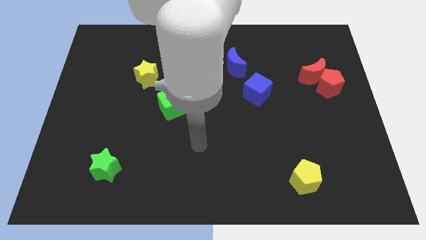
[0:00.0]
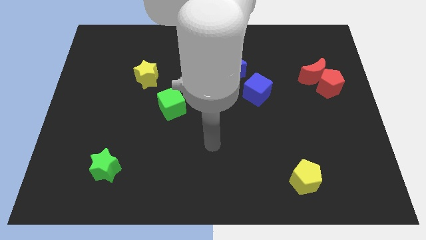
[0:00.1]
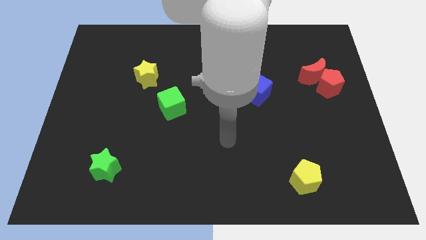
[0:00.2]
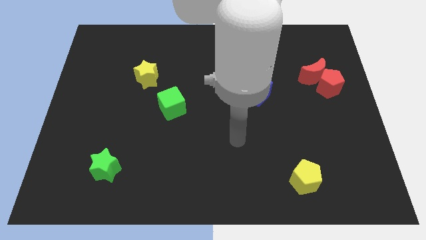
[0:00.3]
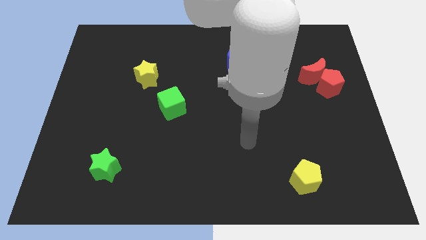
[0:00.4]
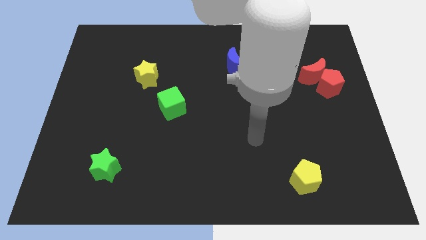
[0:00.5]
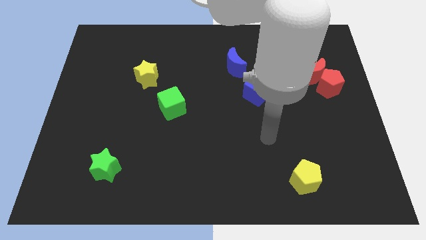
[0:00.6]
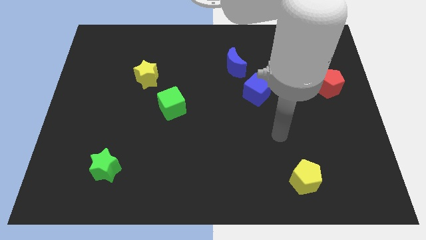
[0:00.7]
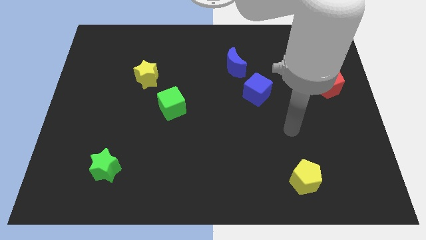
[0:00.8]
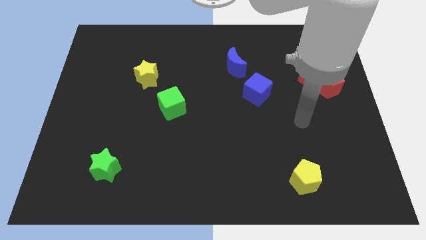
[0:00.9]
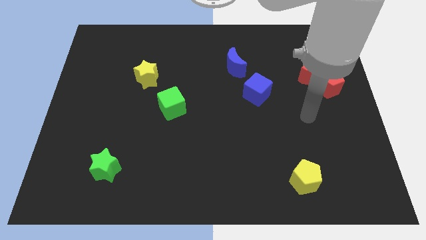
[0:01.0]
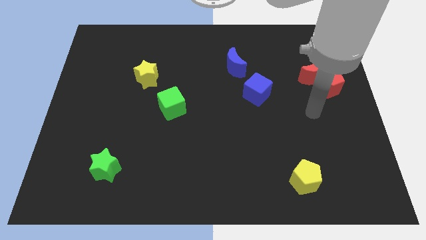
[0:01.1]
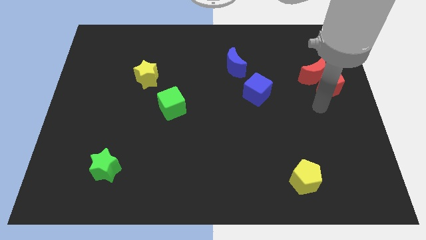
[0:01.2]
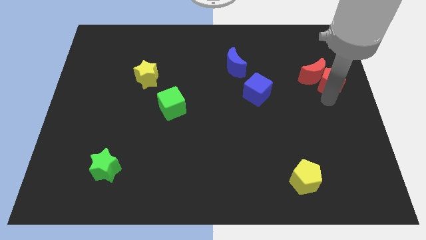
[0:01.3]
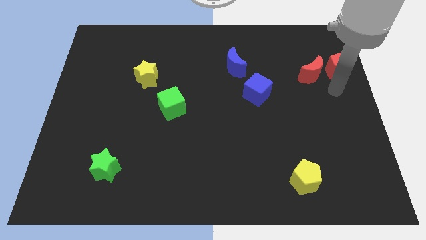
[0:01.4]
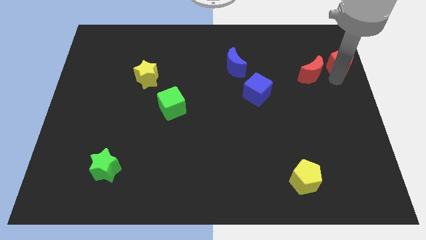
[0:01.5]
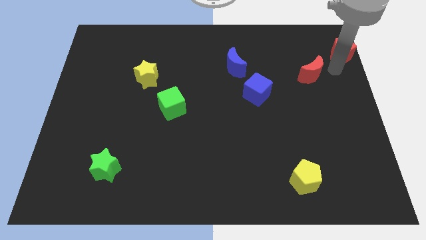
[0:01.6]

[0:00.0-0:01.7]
separate the red moon from the red pentagon

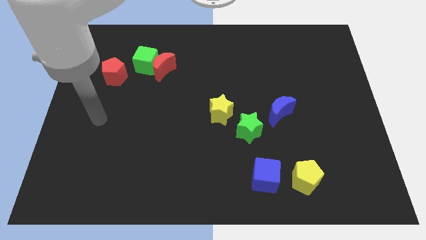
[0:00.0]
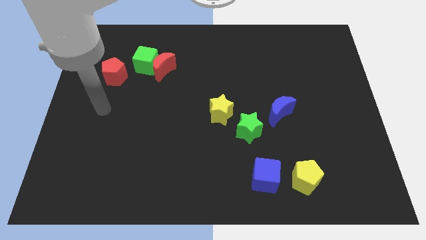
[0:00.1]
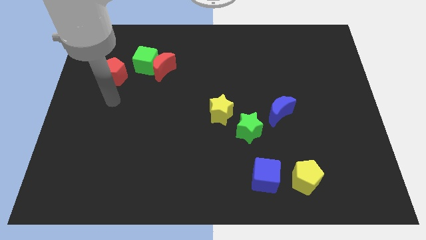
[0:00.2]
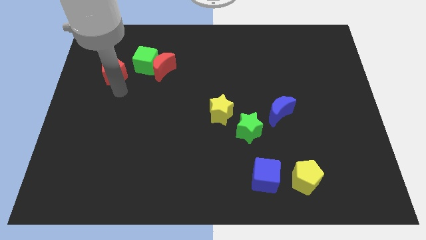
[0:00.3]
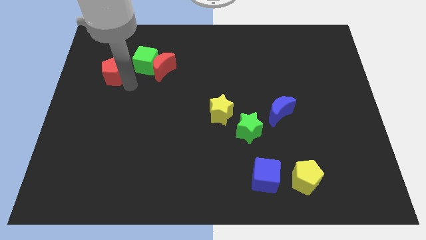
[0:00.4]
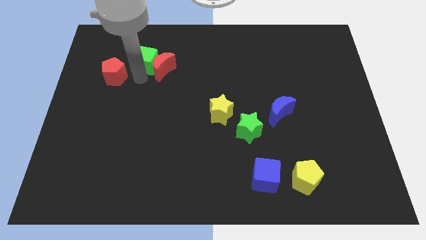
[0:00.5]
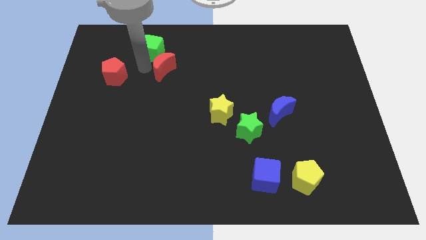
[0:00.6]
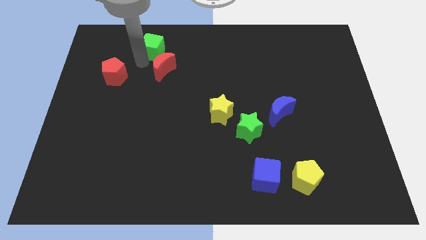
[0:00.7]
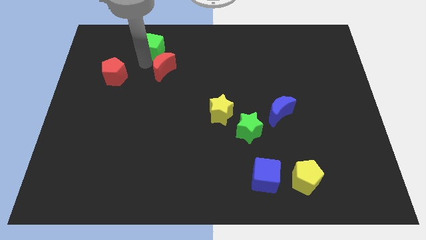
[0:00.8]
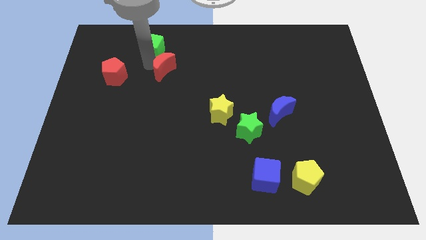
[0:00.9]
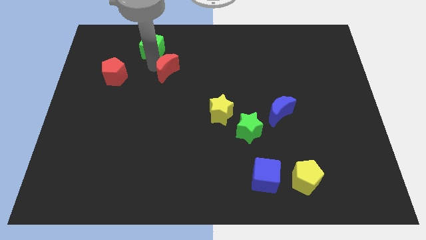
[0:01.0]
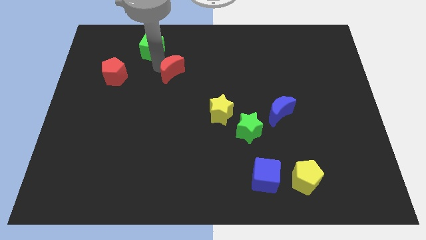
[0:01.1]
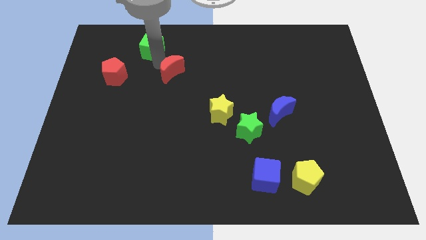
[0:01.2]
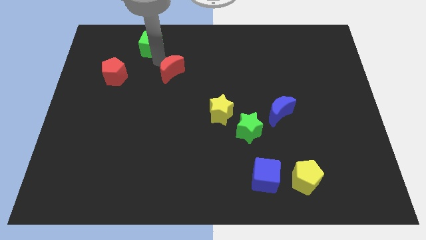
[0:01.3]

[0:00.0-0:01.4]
separate the red moon from the green cube

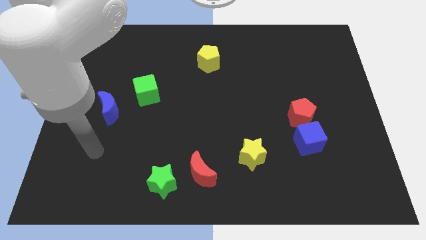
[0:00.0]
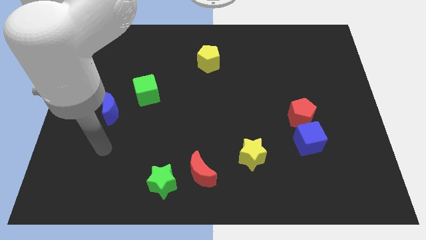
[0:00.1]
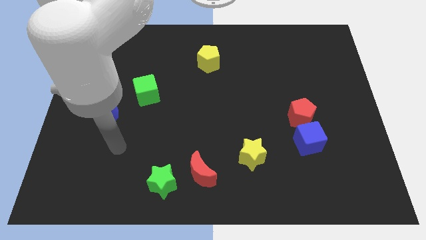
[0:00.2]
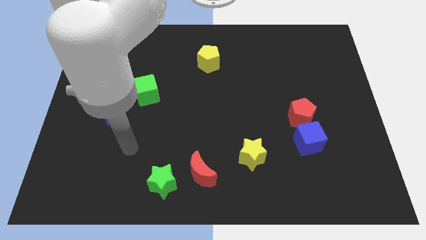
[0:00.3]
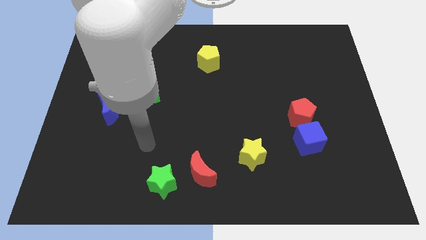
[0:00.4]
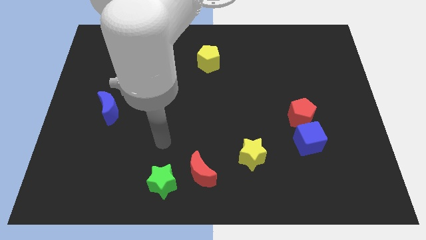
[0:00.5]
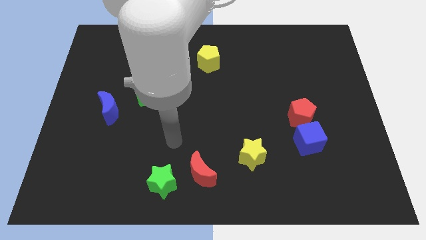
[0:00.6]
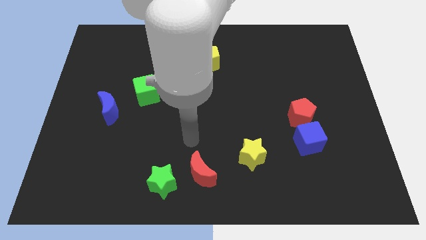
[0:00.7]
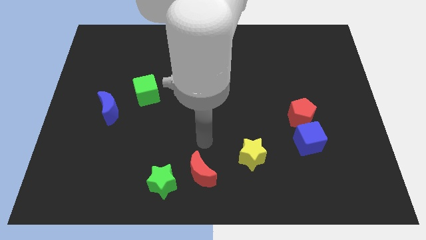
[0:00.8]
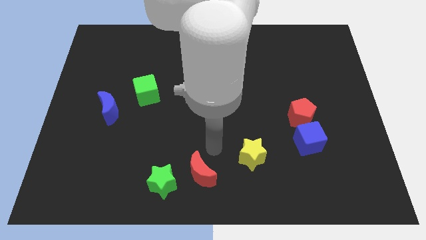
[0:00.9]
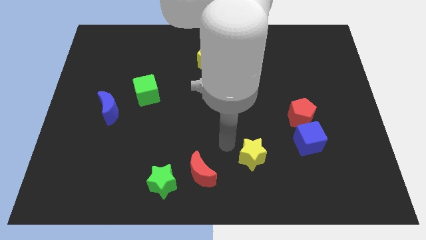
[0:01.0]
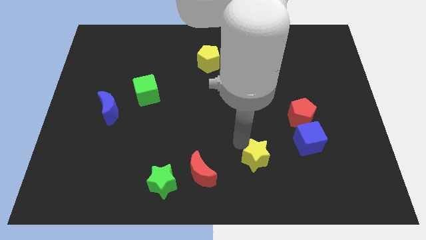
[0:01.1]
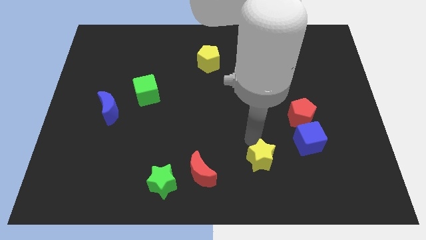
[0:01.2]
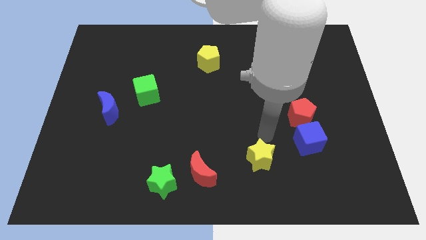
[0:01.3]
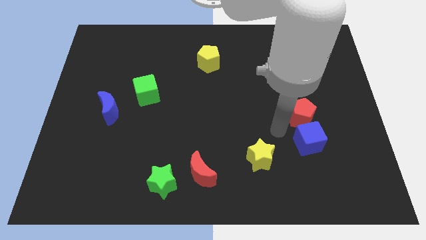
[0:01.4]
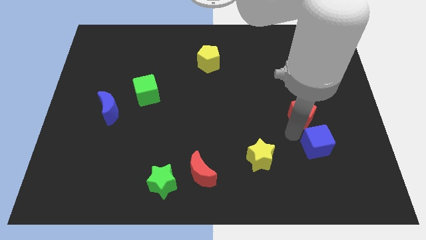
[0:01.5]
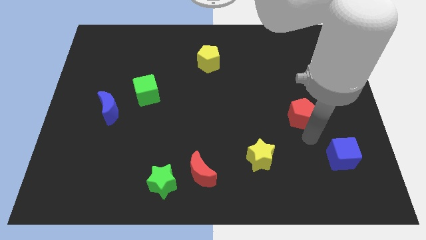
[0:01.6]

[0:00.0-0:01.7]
separate the red pentagon from the blue cube

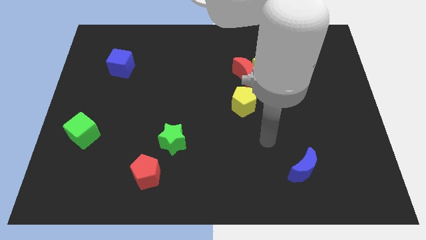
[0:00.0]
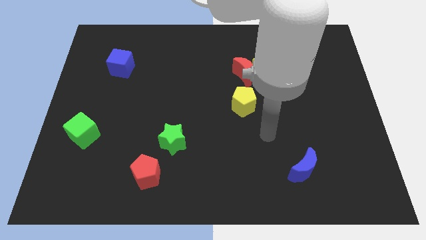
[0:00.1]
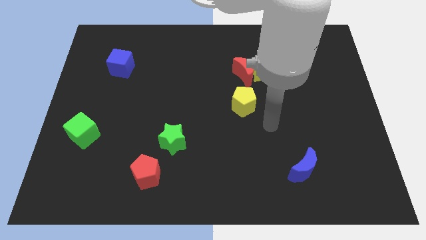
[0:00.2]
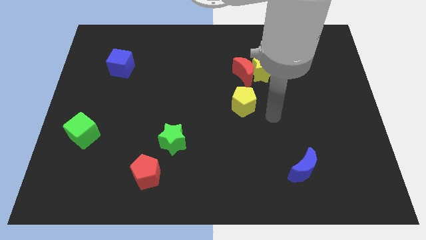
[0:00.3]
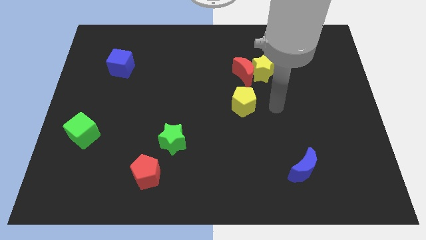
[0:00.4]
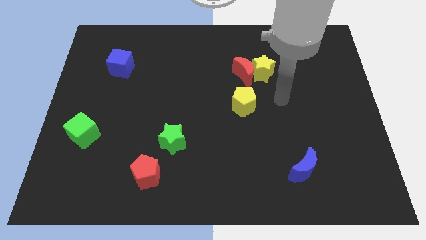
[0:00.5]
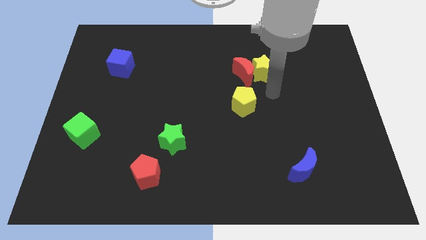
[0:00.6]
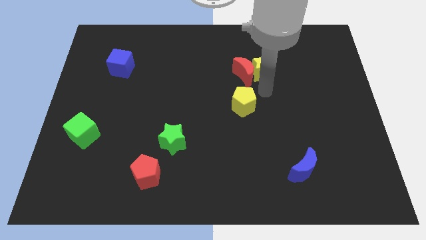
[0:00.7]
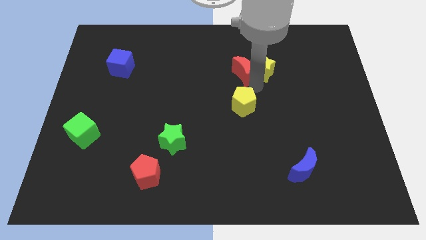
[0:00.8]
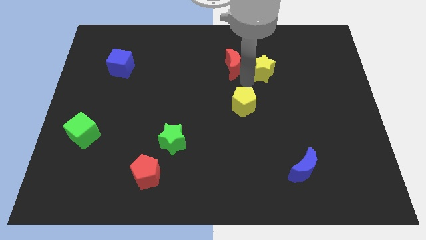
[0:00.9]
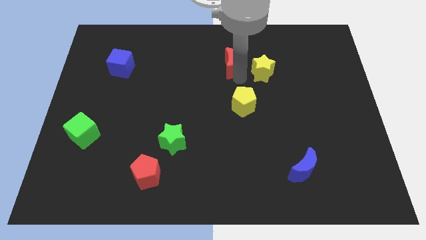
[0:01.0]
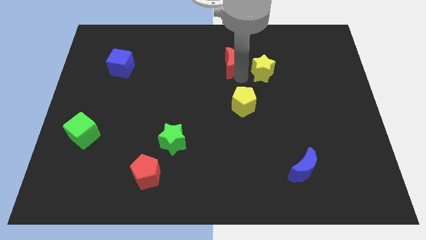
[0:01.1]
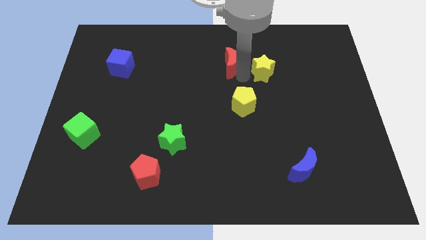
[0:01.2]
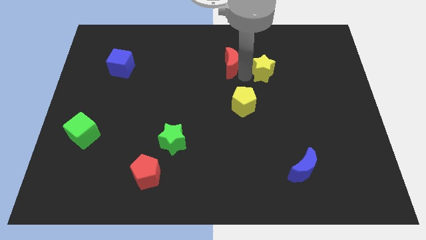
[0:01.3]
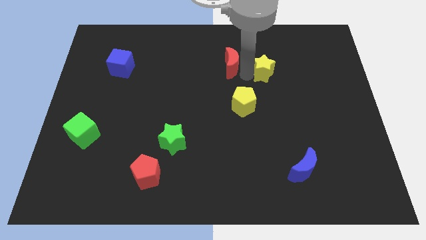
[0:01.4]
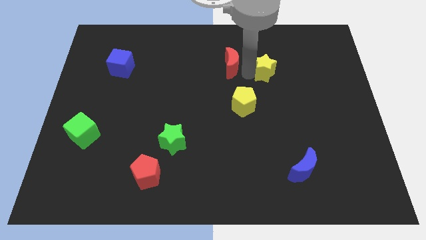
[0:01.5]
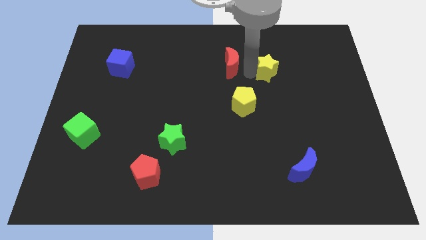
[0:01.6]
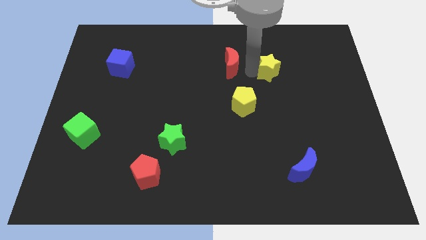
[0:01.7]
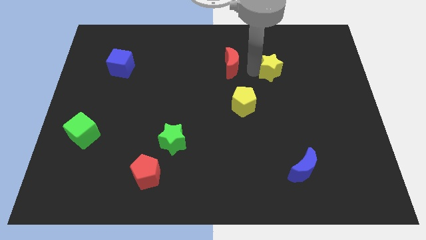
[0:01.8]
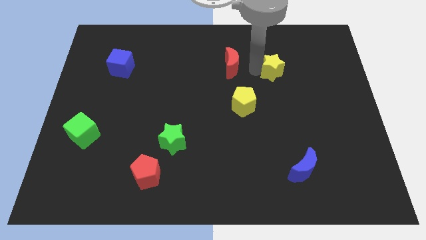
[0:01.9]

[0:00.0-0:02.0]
separate the yellow star from the red moon

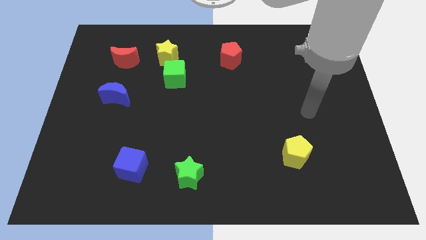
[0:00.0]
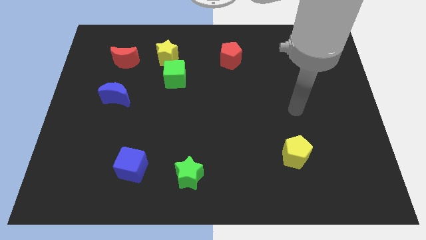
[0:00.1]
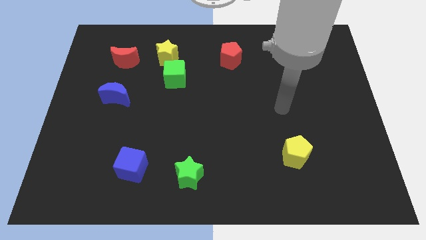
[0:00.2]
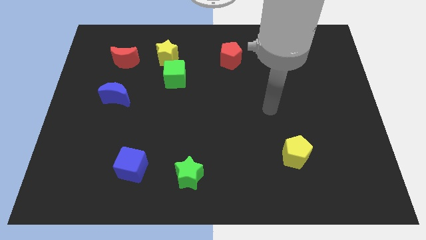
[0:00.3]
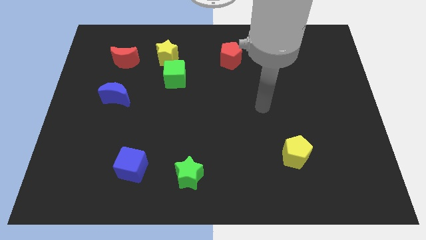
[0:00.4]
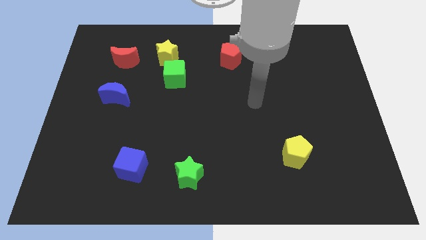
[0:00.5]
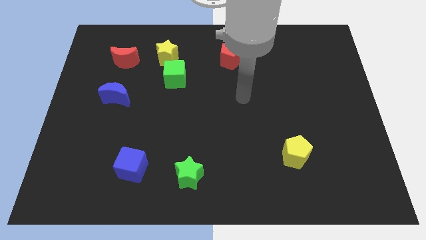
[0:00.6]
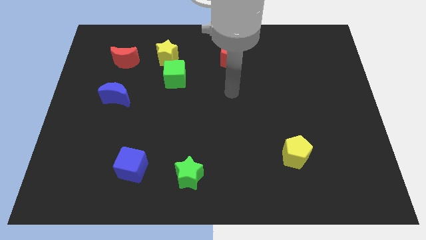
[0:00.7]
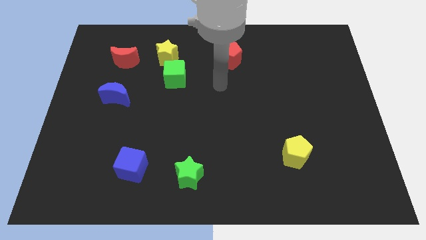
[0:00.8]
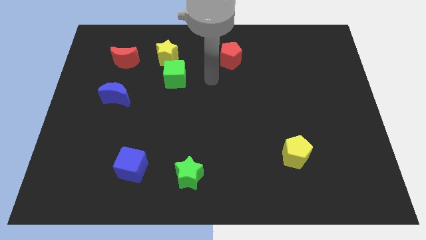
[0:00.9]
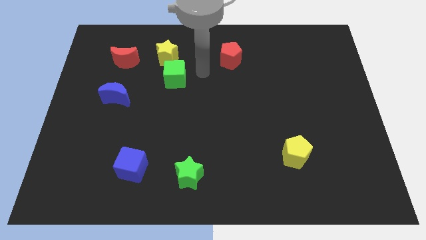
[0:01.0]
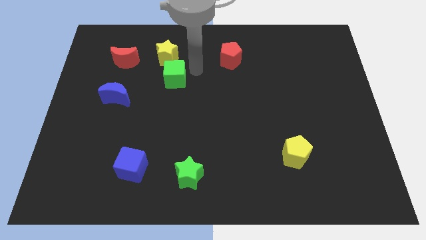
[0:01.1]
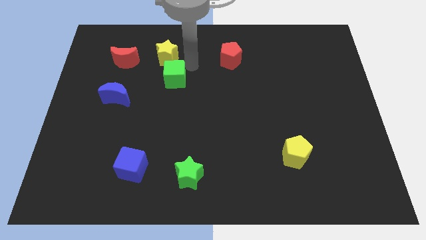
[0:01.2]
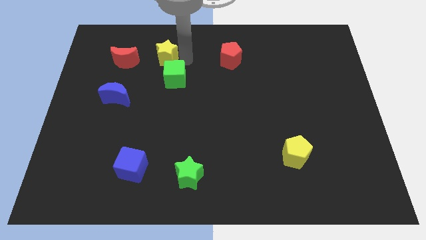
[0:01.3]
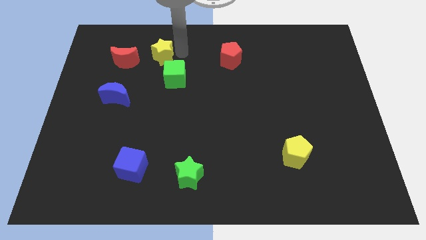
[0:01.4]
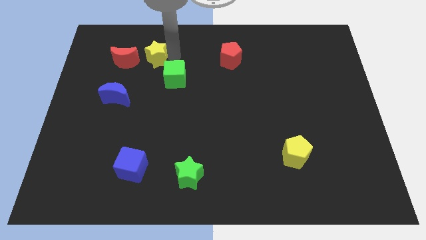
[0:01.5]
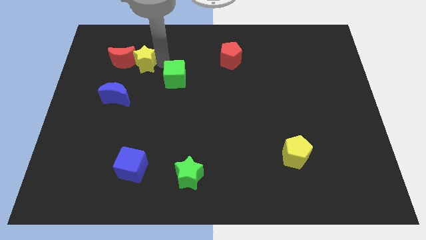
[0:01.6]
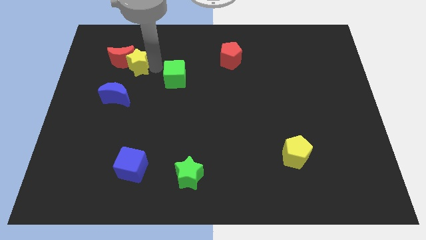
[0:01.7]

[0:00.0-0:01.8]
separate the green cube from the yellow star

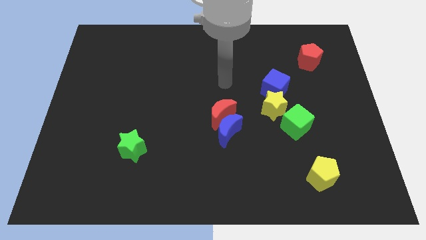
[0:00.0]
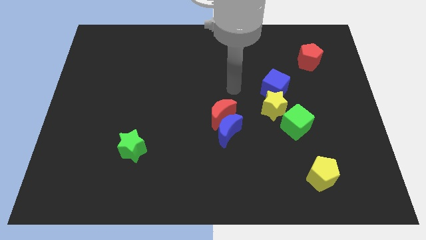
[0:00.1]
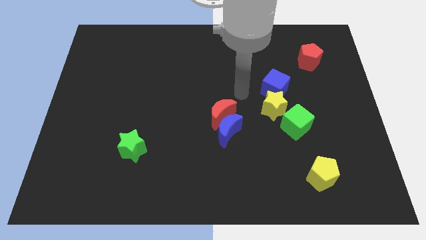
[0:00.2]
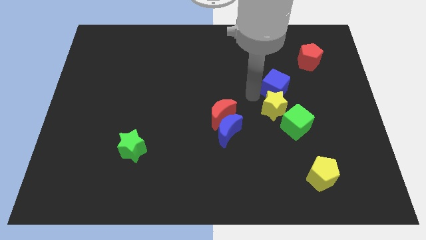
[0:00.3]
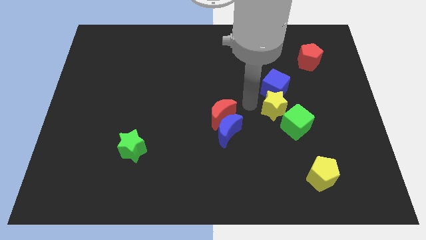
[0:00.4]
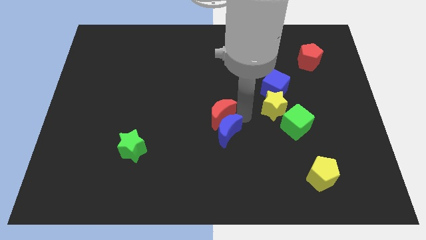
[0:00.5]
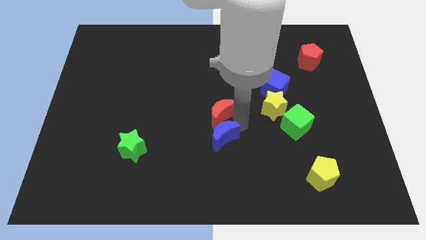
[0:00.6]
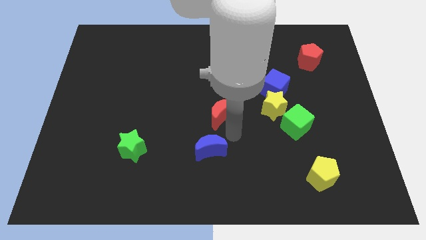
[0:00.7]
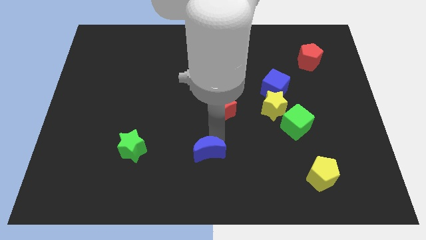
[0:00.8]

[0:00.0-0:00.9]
move the red moon away from the blue moon
